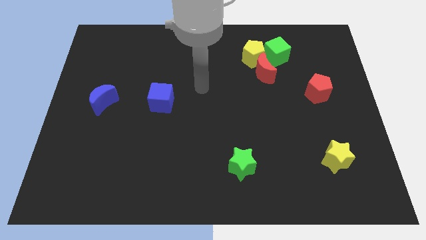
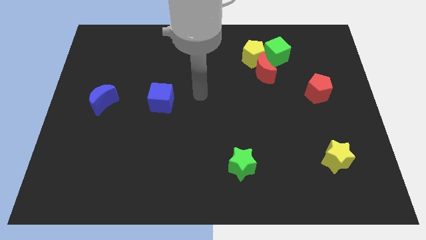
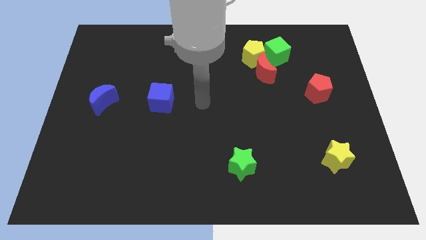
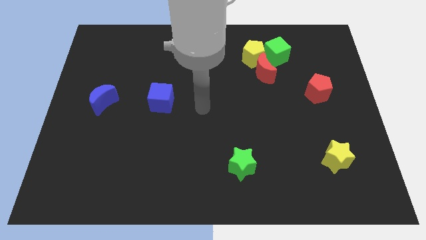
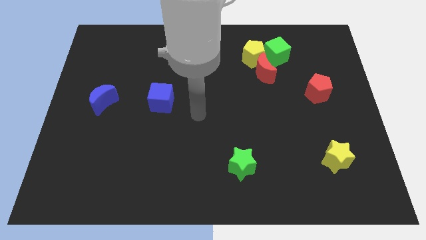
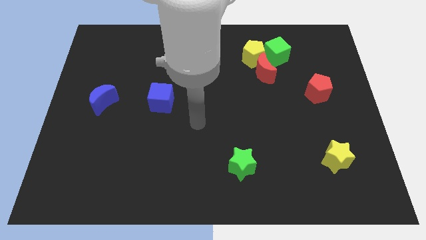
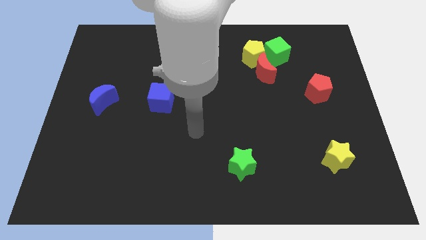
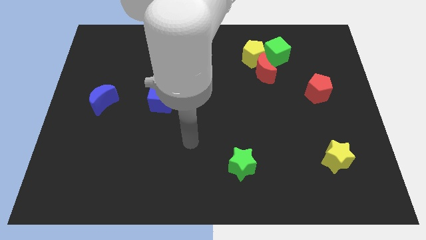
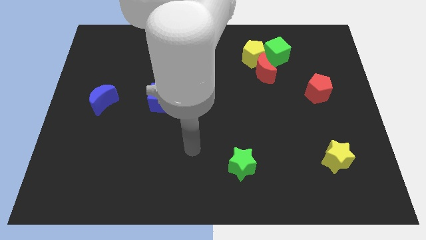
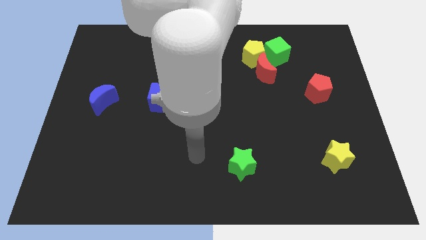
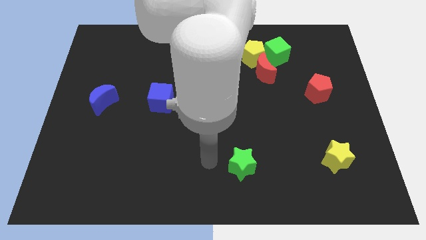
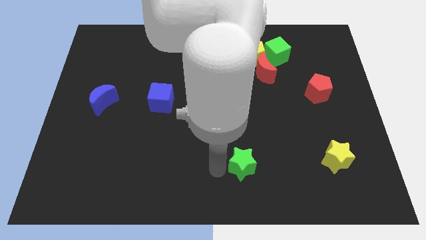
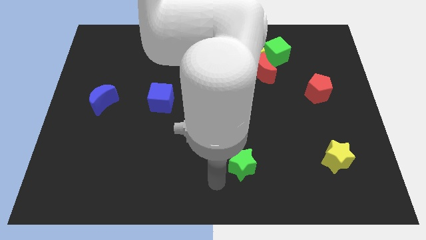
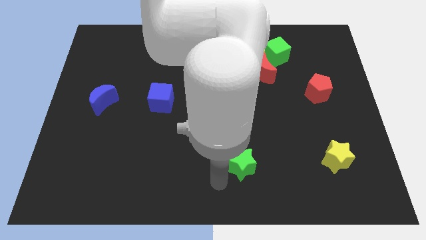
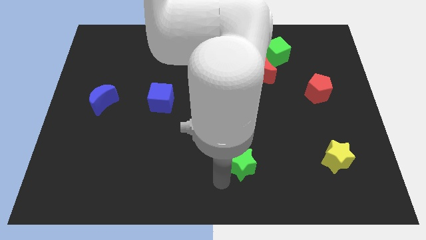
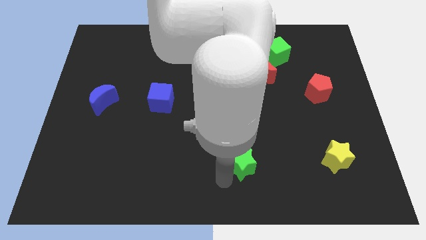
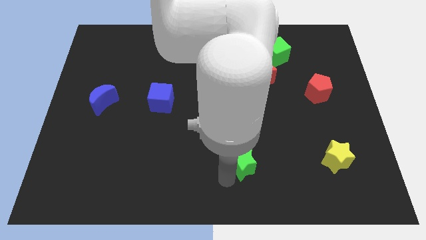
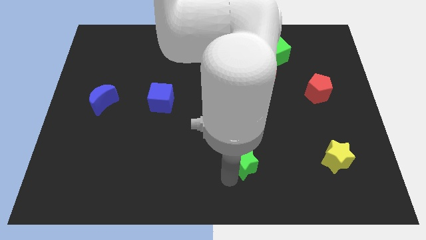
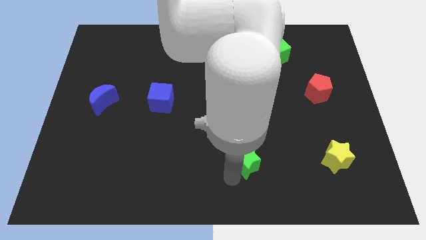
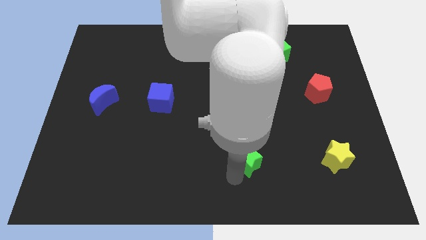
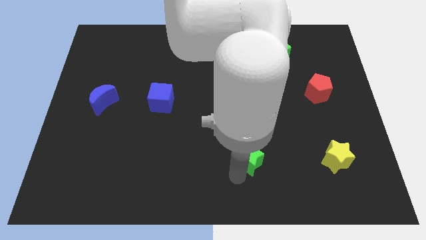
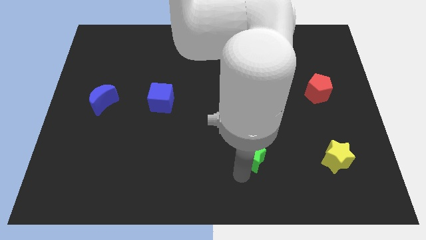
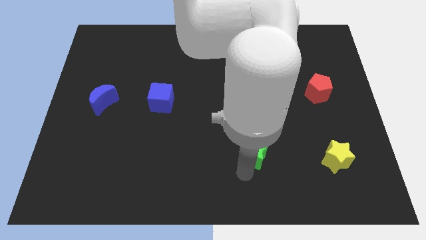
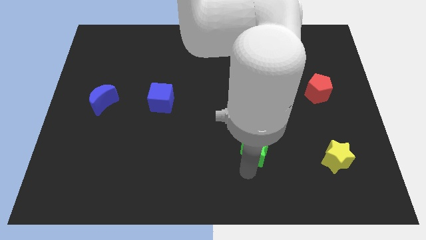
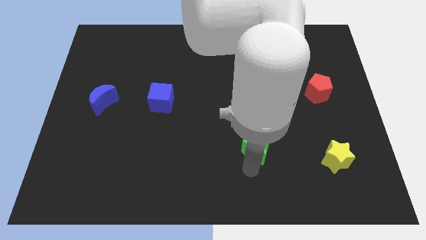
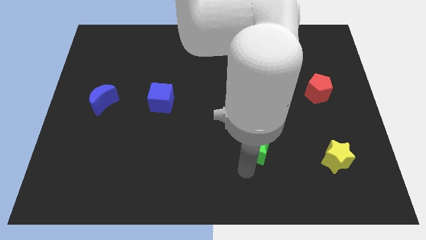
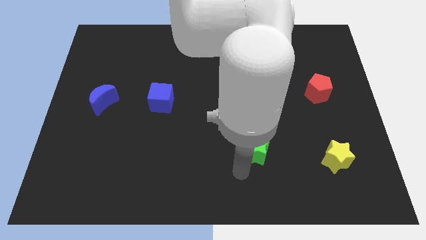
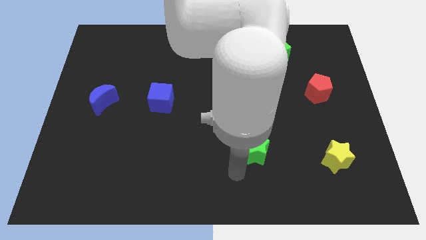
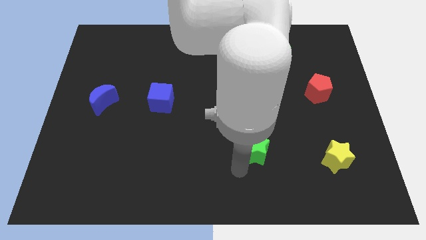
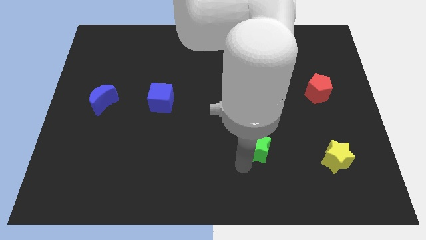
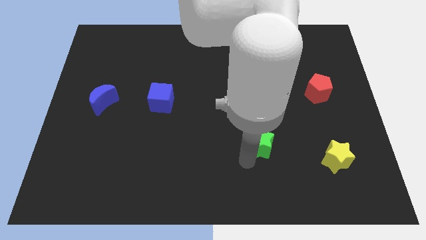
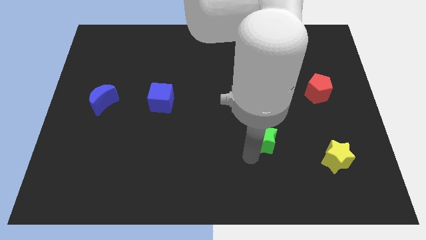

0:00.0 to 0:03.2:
move the green star upwards and right a bit

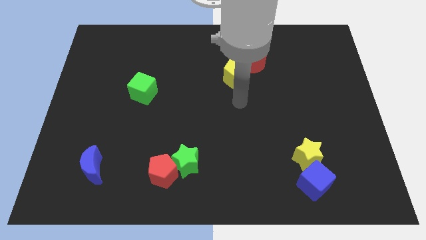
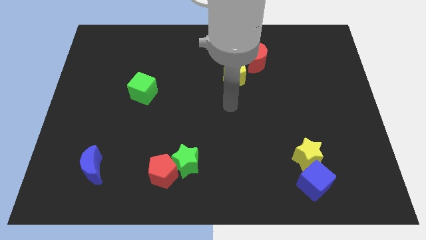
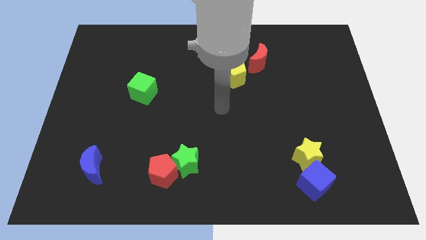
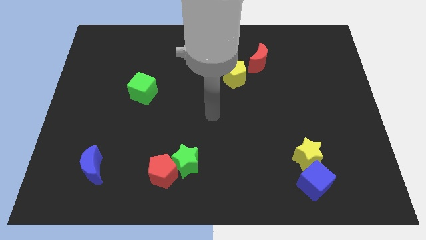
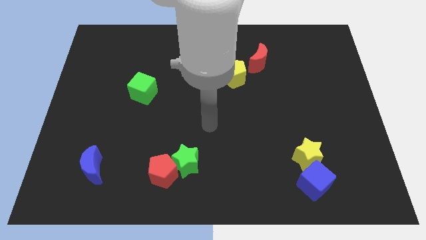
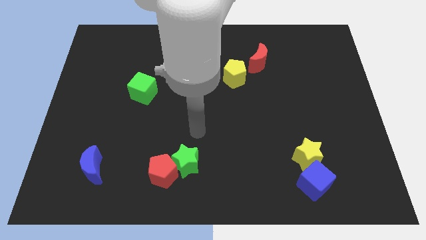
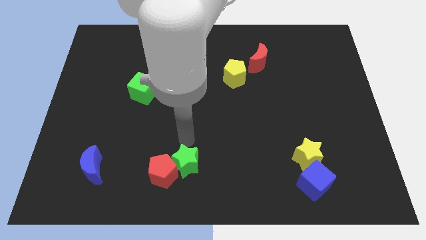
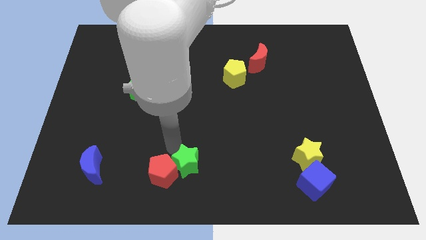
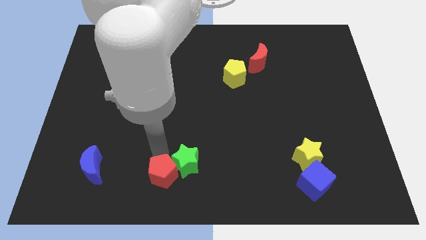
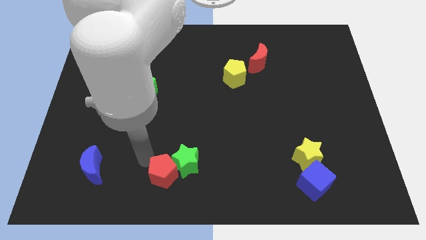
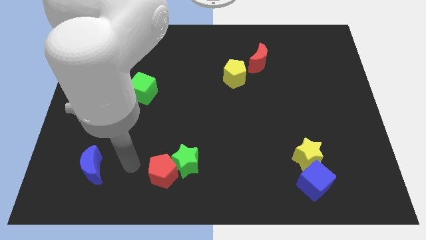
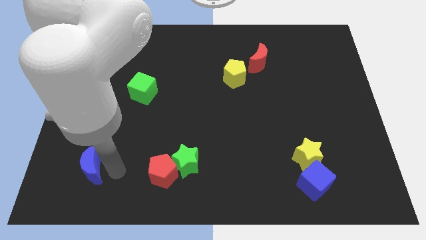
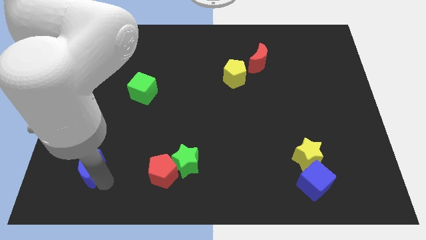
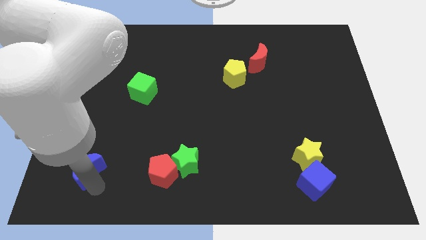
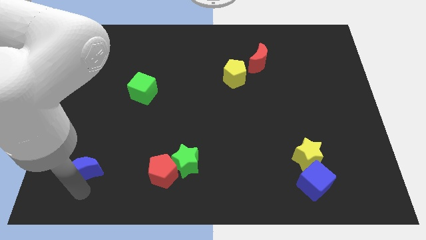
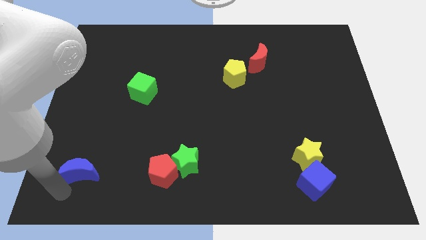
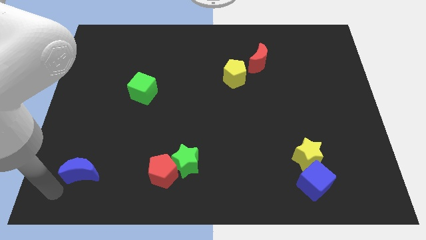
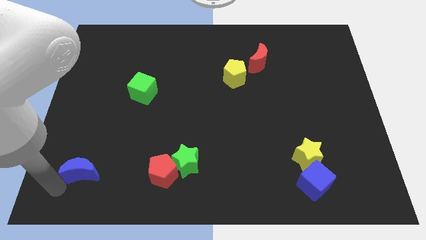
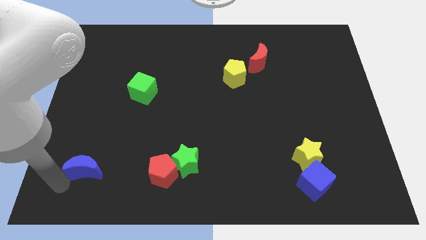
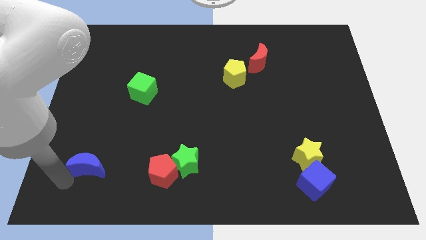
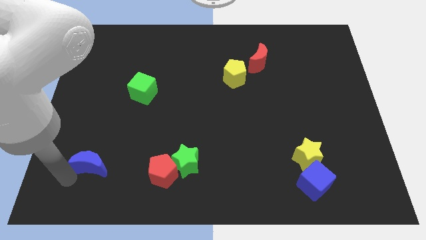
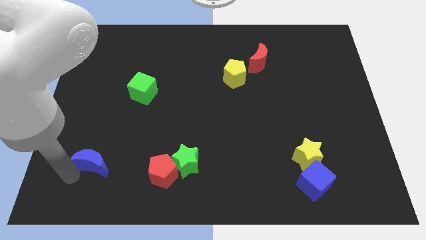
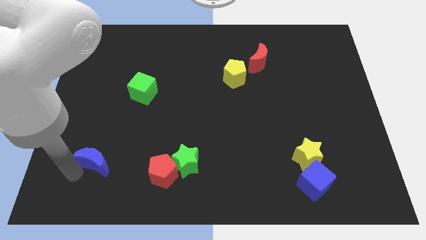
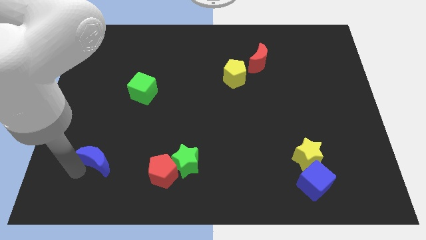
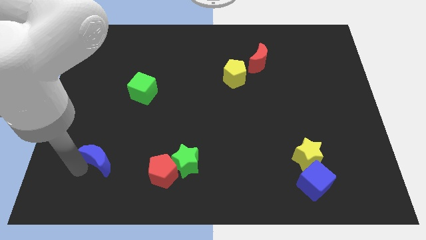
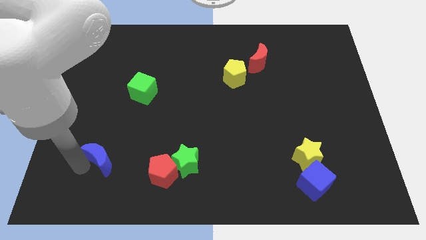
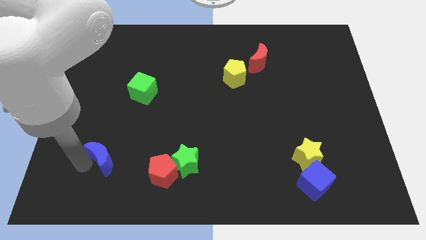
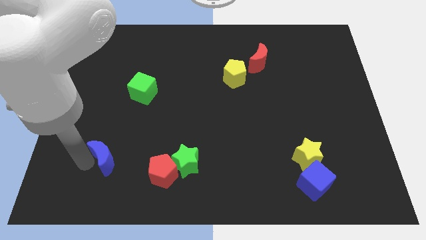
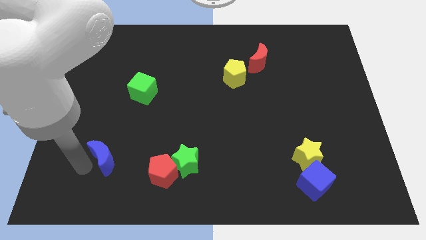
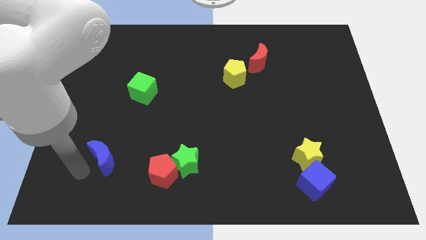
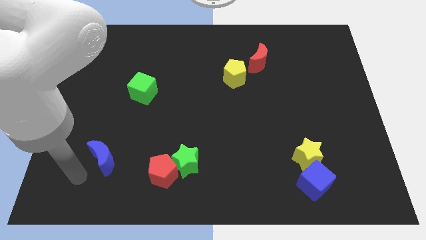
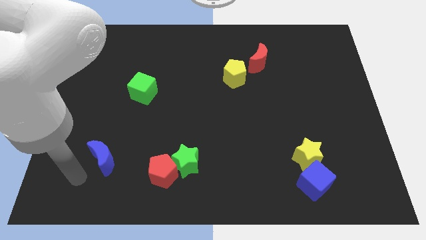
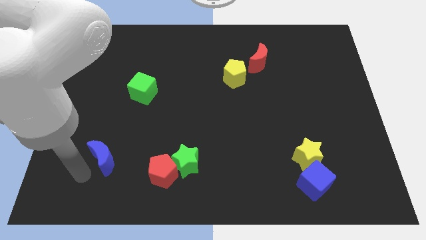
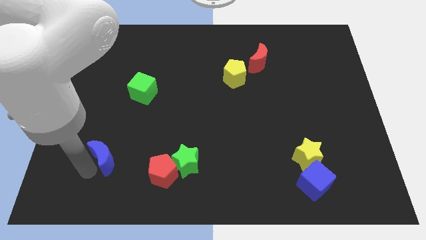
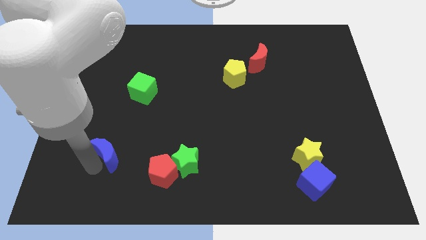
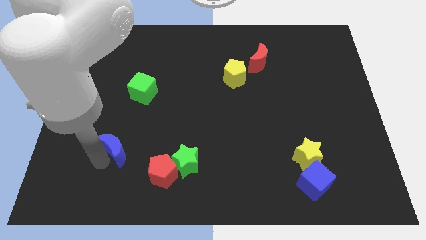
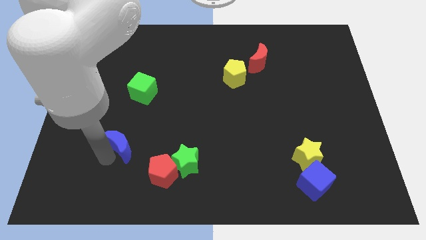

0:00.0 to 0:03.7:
move the blue moon diagonally up and right slightly

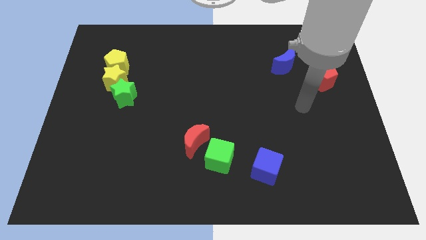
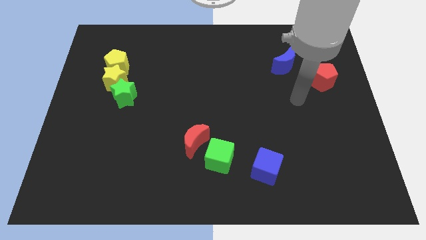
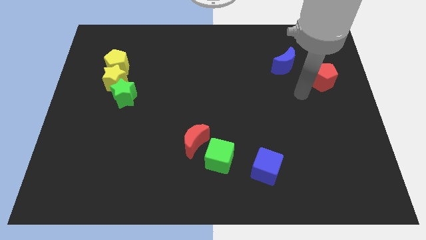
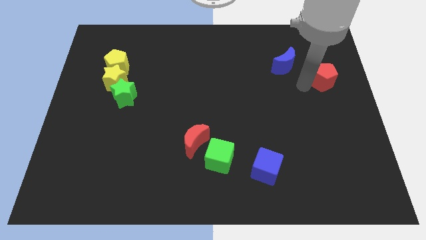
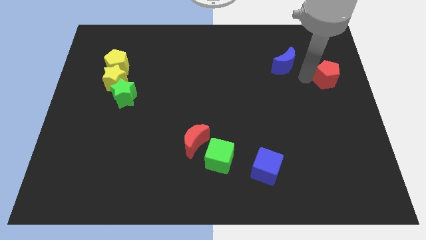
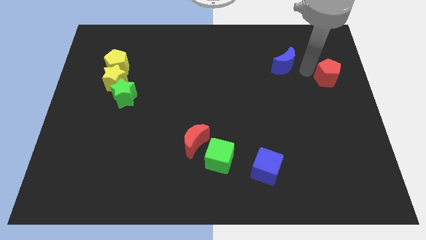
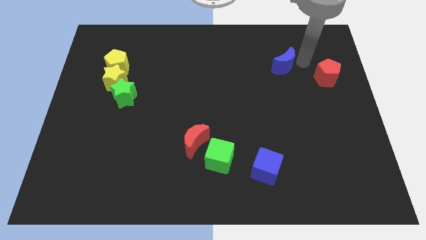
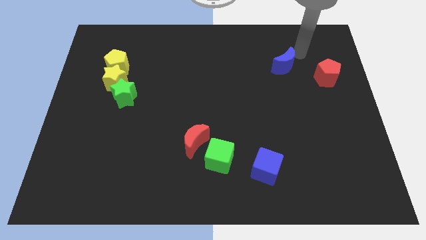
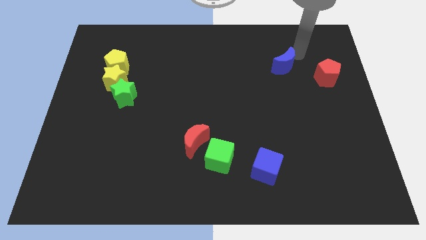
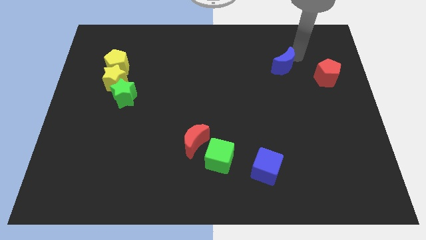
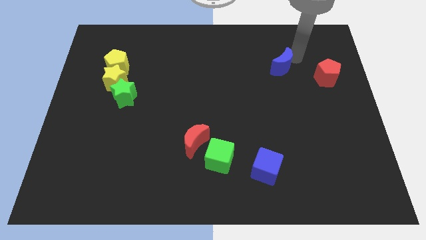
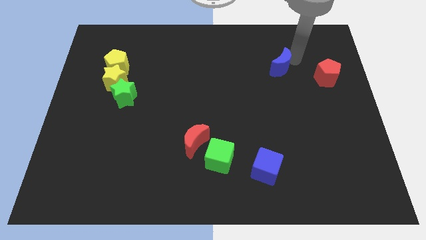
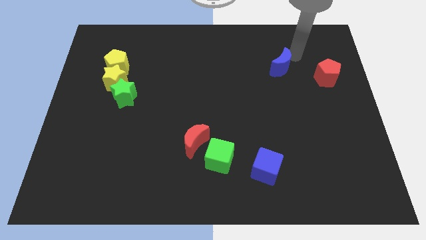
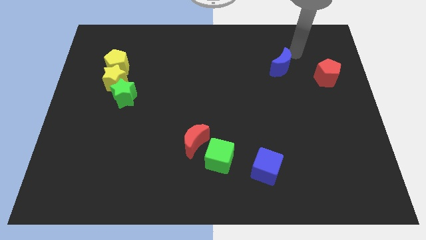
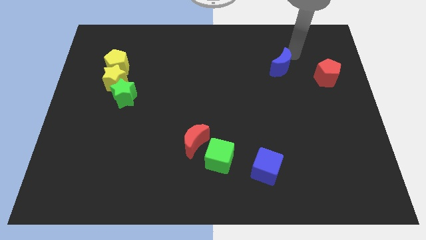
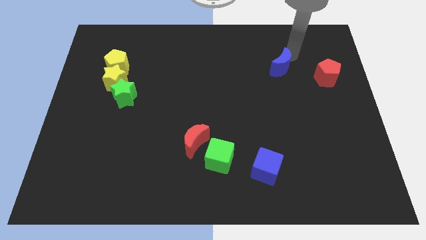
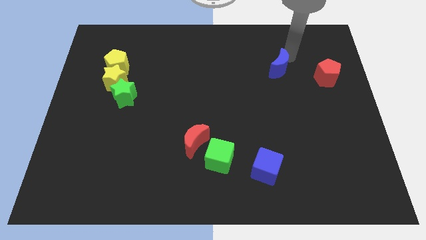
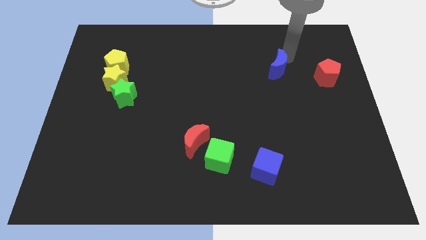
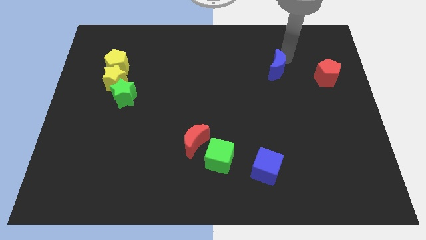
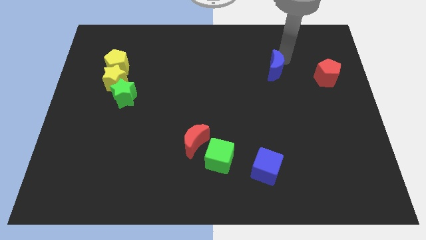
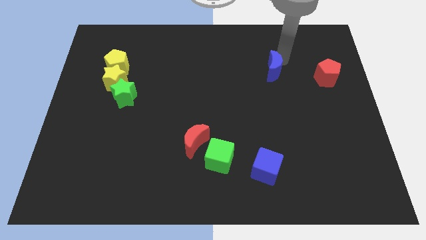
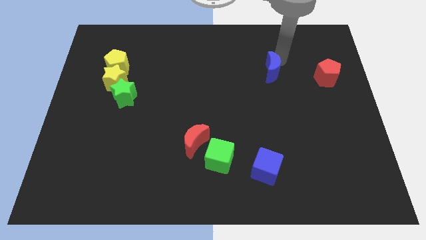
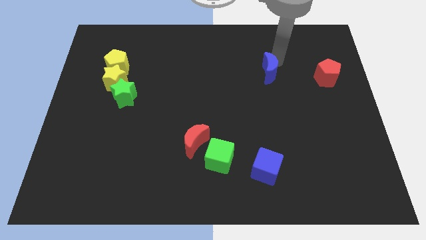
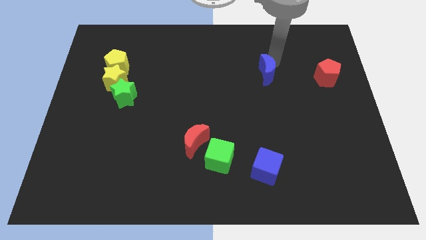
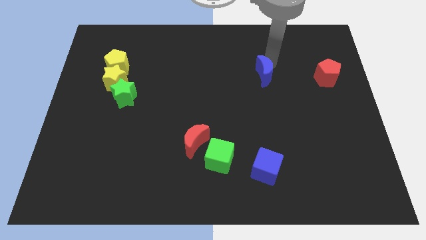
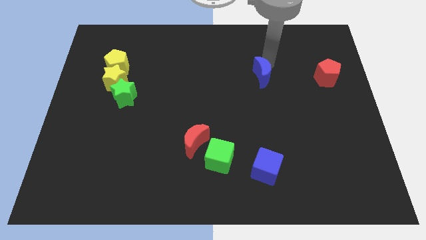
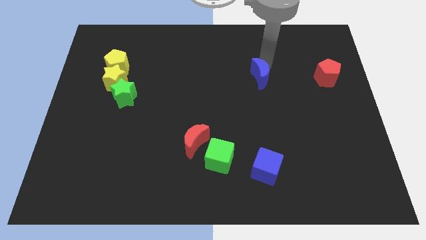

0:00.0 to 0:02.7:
move the blue moon slightly diagonally downwards and to the left
